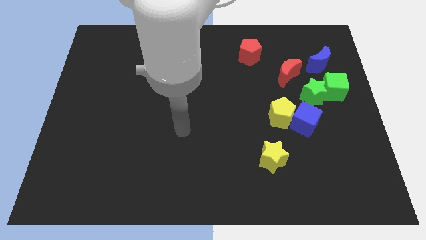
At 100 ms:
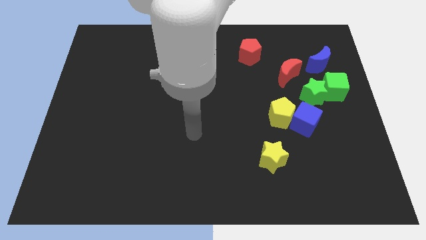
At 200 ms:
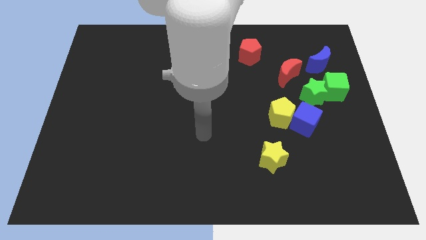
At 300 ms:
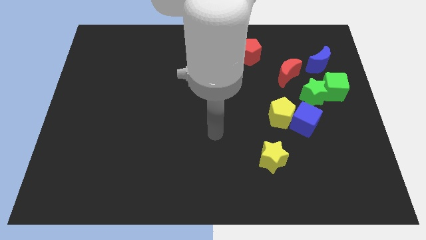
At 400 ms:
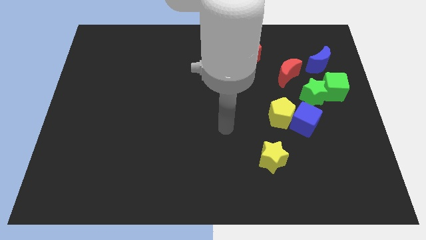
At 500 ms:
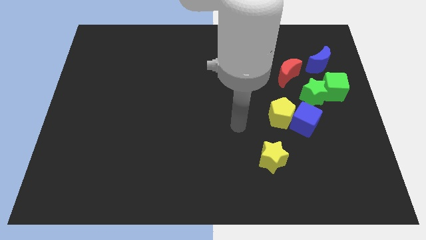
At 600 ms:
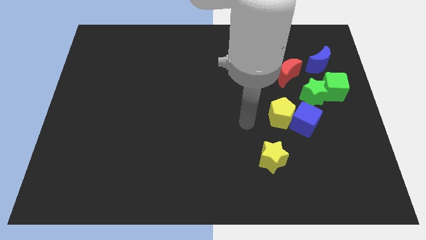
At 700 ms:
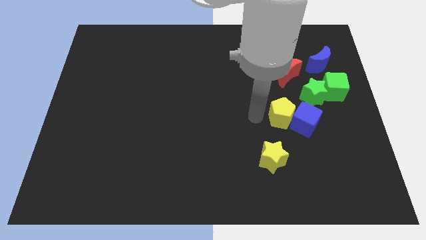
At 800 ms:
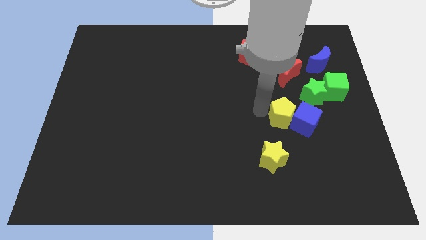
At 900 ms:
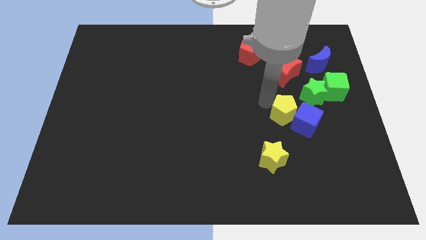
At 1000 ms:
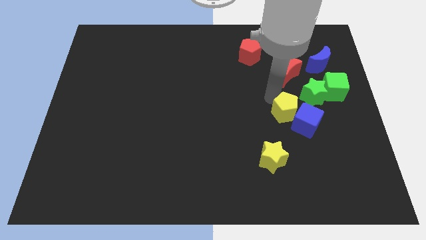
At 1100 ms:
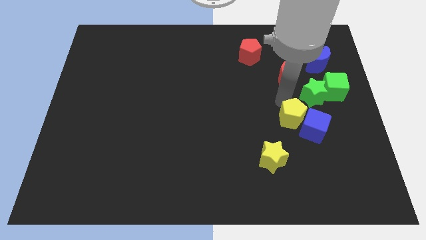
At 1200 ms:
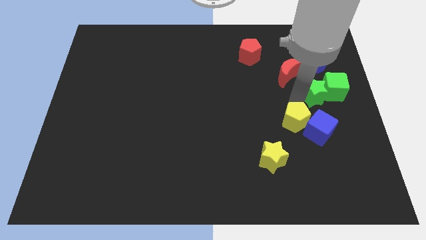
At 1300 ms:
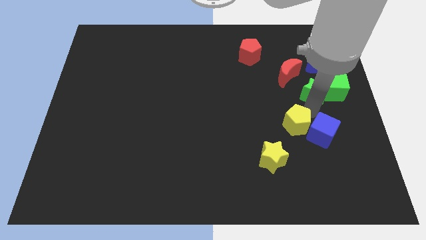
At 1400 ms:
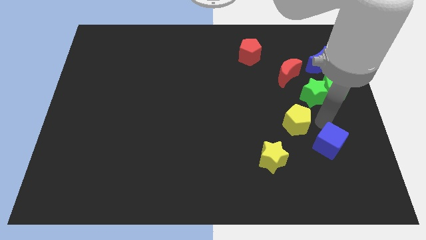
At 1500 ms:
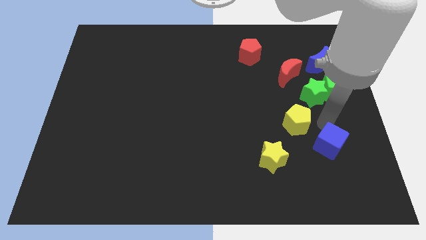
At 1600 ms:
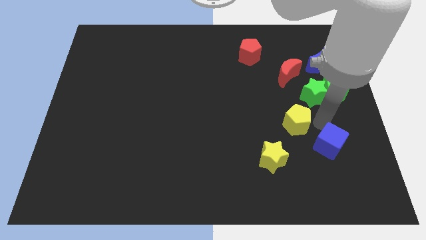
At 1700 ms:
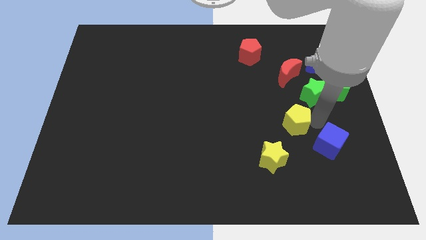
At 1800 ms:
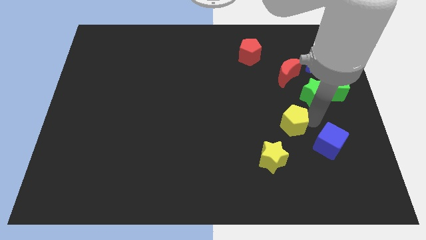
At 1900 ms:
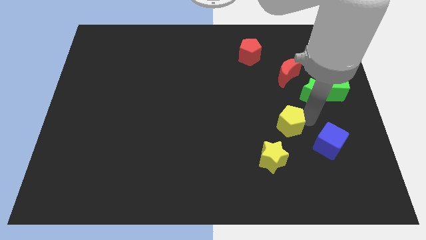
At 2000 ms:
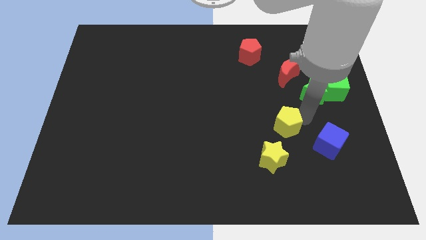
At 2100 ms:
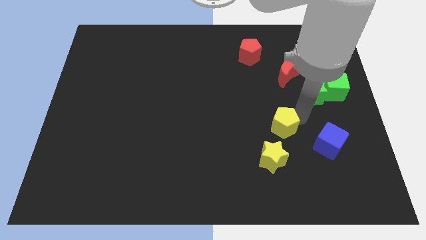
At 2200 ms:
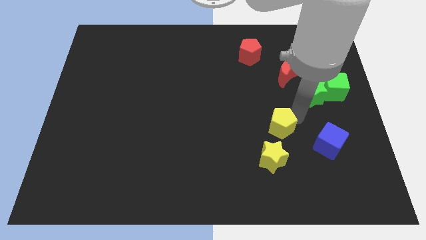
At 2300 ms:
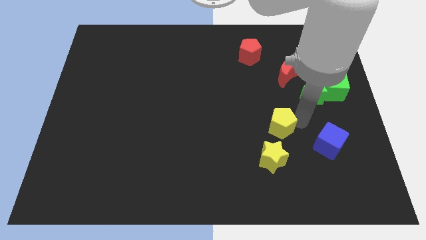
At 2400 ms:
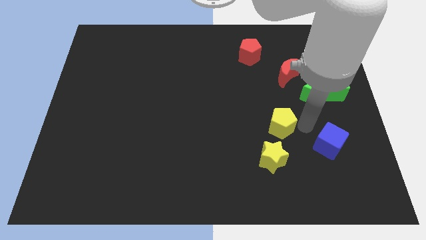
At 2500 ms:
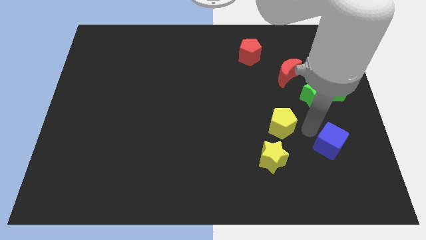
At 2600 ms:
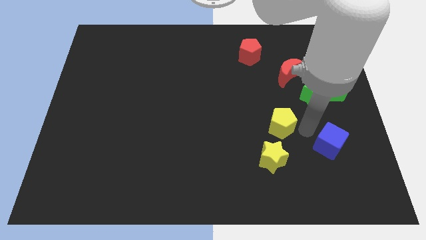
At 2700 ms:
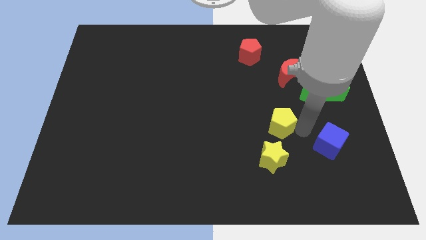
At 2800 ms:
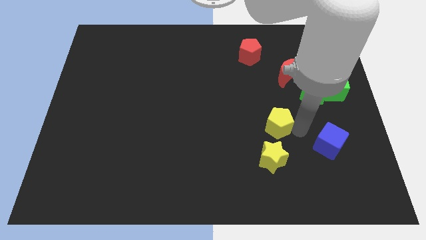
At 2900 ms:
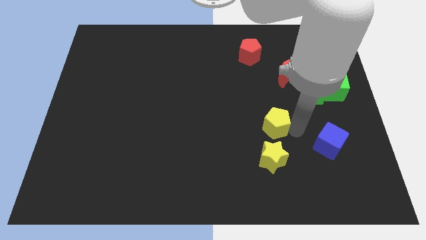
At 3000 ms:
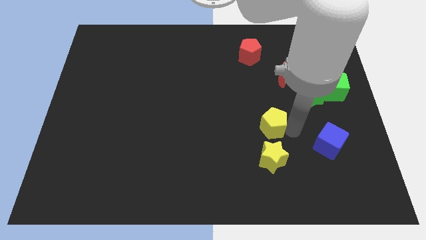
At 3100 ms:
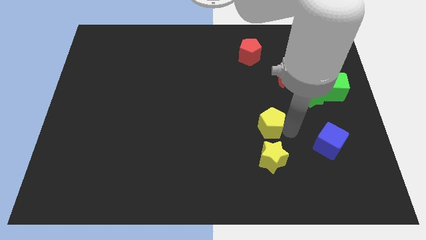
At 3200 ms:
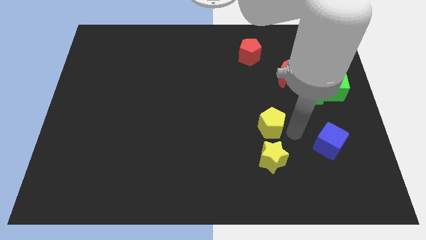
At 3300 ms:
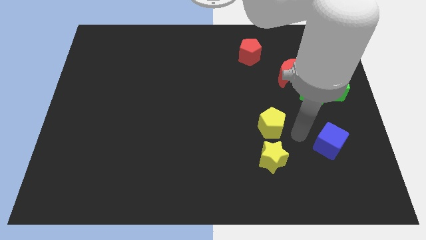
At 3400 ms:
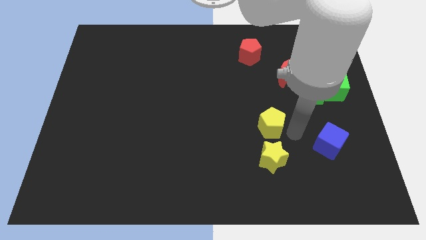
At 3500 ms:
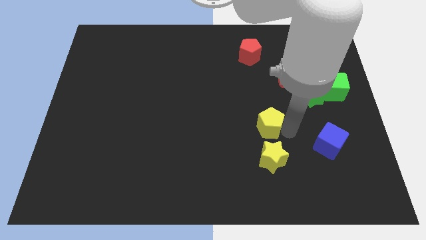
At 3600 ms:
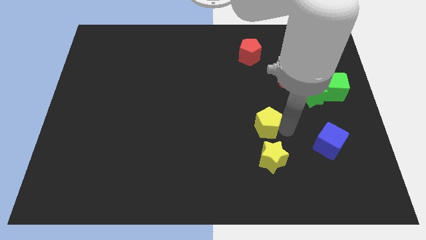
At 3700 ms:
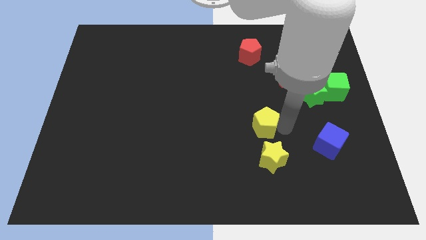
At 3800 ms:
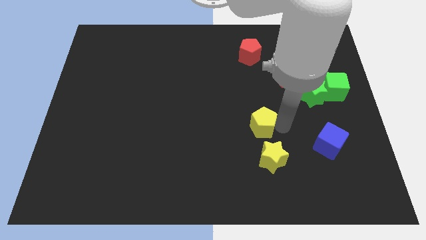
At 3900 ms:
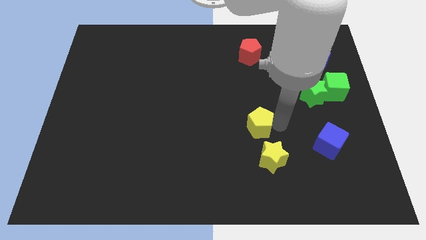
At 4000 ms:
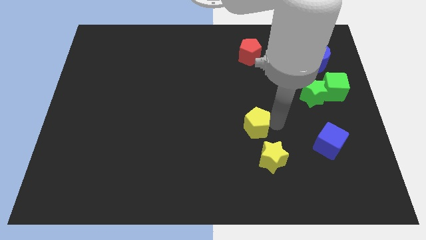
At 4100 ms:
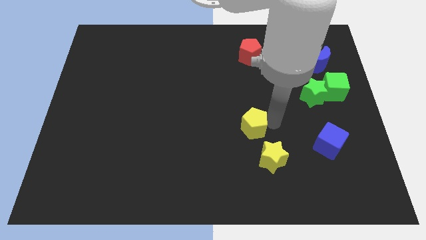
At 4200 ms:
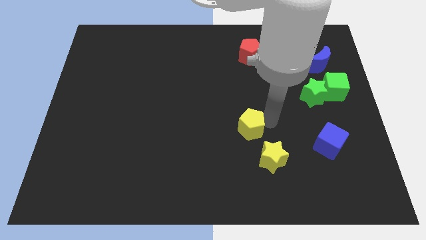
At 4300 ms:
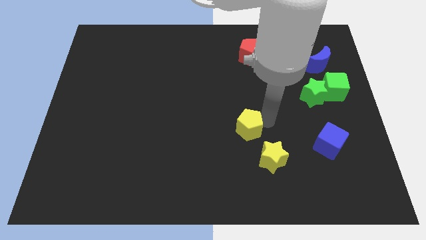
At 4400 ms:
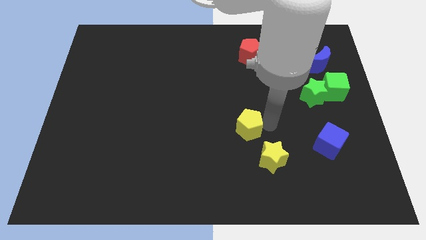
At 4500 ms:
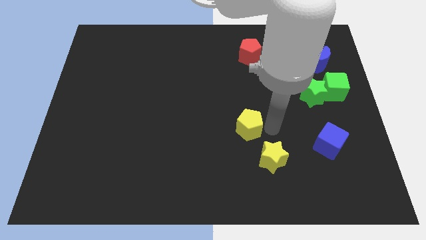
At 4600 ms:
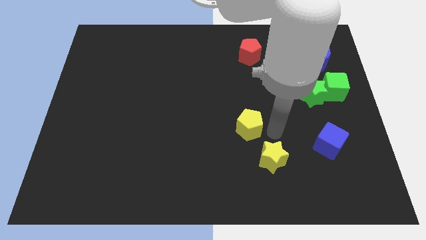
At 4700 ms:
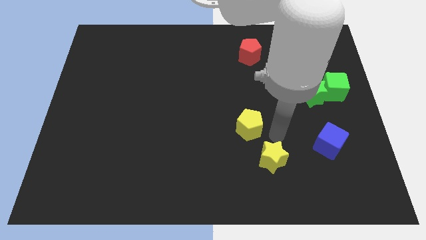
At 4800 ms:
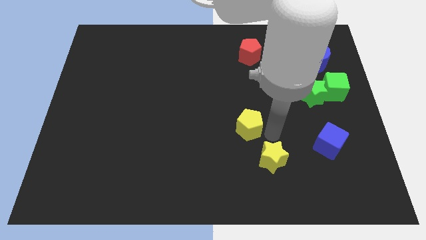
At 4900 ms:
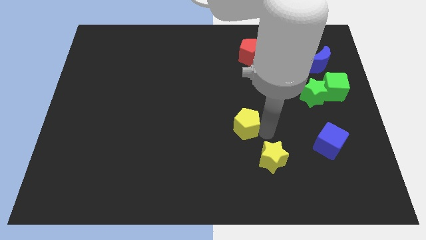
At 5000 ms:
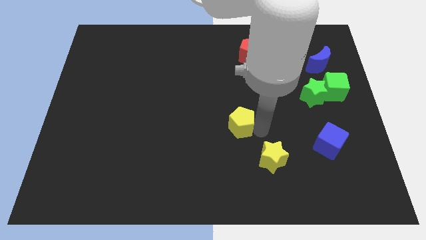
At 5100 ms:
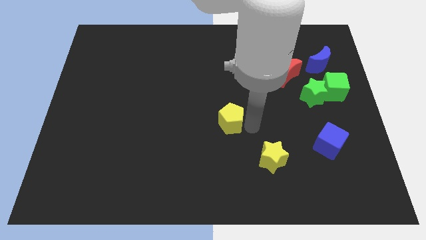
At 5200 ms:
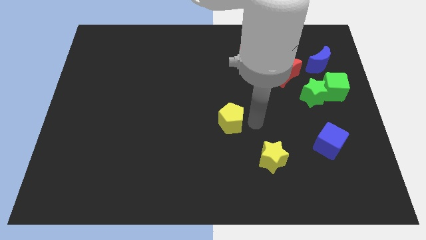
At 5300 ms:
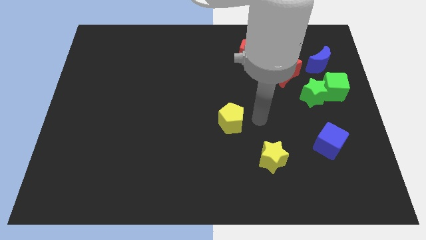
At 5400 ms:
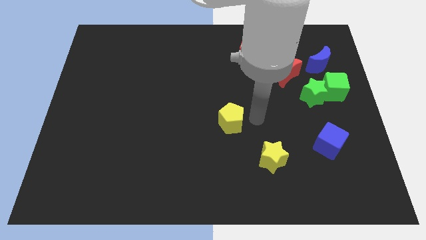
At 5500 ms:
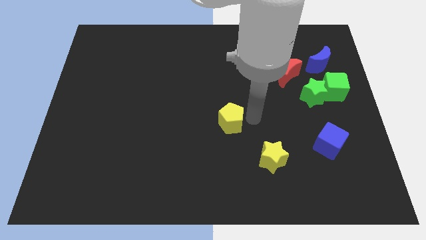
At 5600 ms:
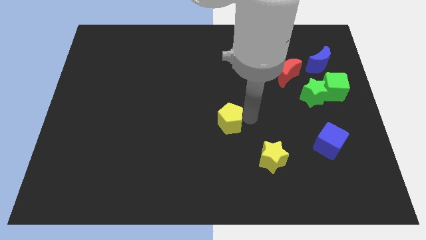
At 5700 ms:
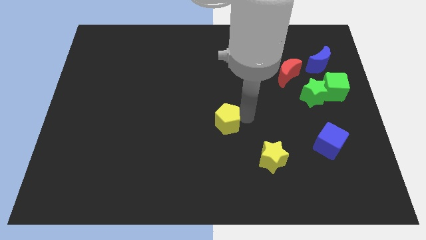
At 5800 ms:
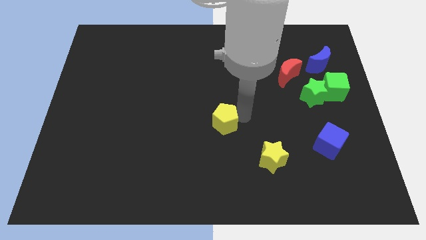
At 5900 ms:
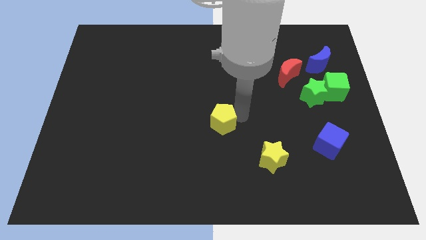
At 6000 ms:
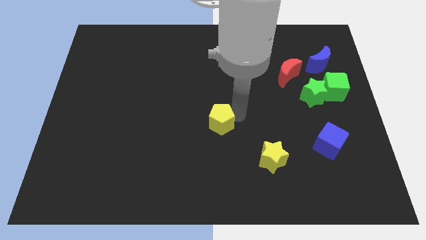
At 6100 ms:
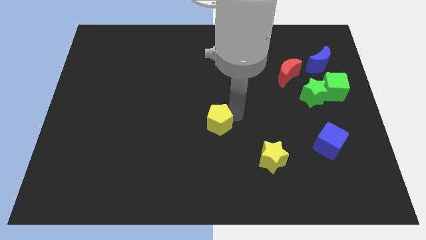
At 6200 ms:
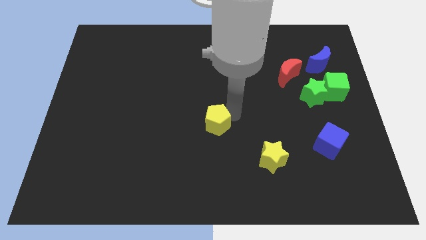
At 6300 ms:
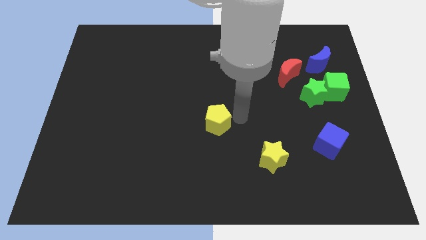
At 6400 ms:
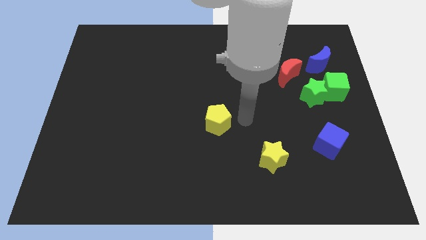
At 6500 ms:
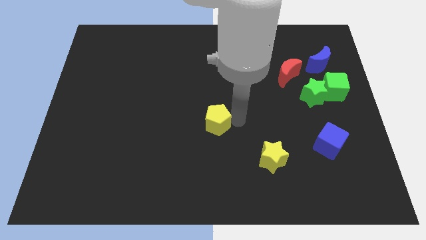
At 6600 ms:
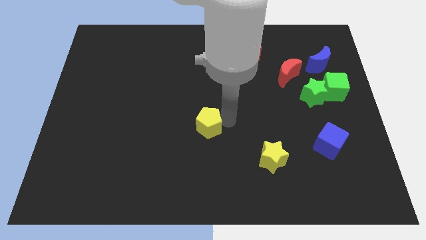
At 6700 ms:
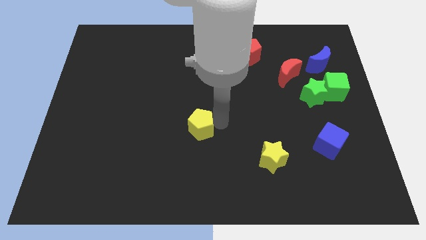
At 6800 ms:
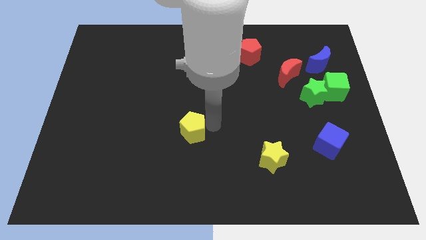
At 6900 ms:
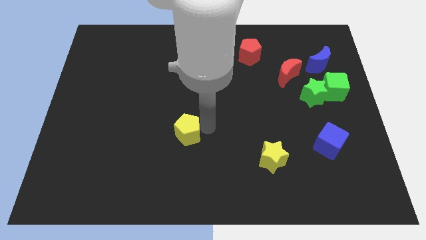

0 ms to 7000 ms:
move the yellow pentagon to the left

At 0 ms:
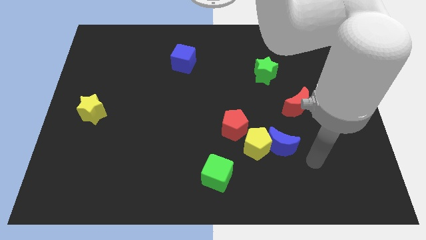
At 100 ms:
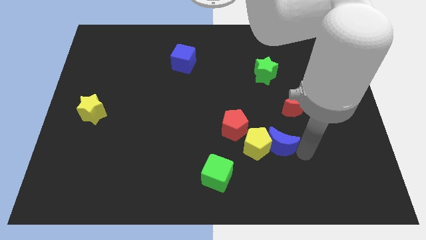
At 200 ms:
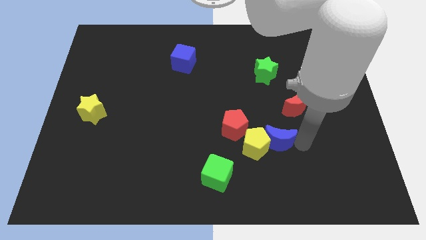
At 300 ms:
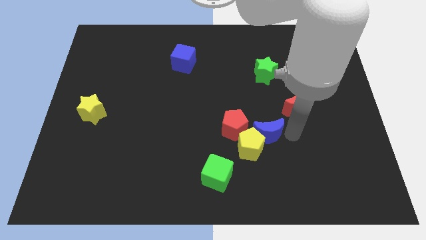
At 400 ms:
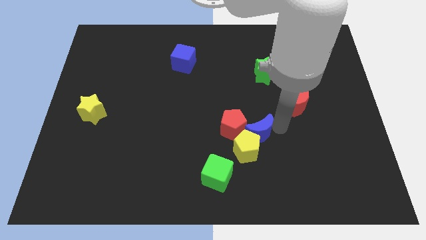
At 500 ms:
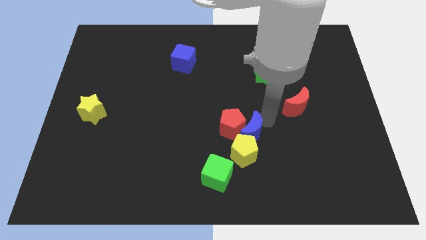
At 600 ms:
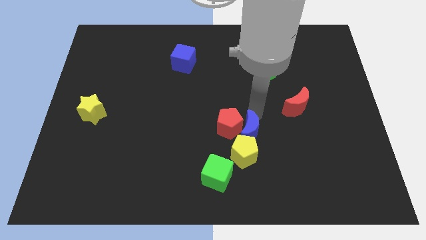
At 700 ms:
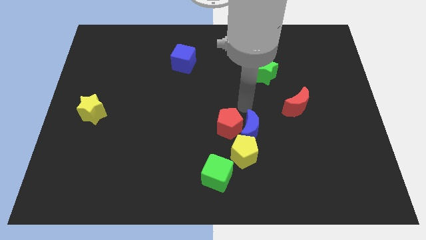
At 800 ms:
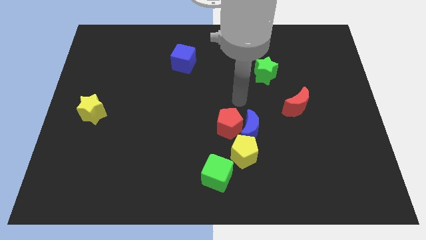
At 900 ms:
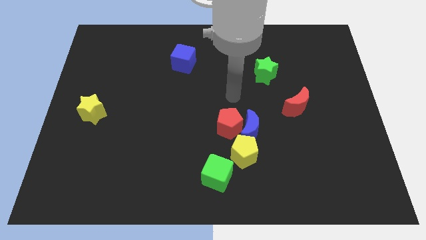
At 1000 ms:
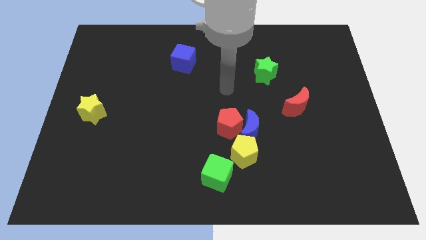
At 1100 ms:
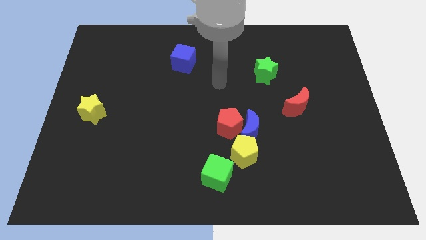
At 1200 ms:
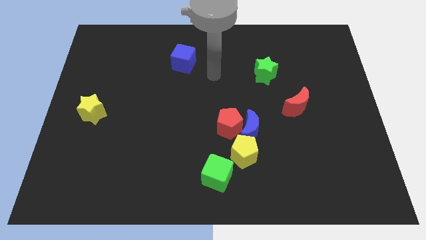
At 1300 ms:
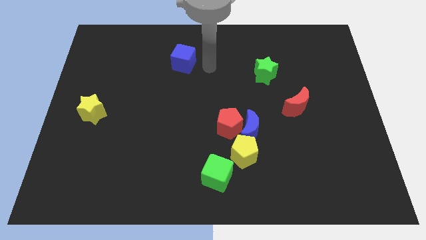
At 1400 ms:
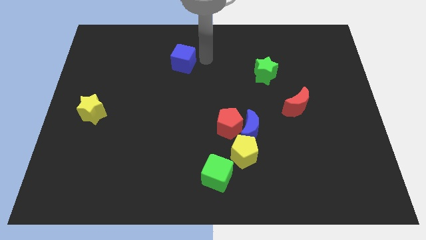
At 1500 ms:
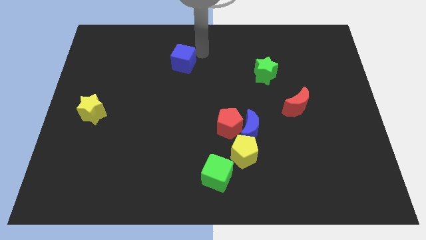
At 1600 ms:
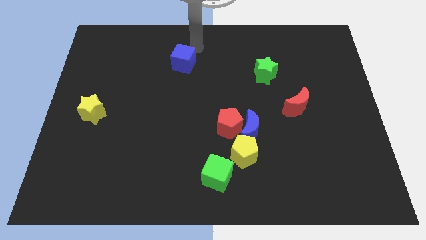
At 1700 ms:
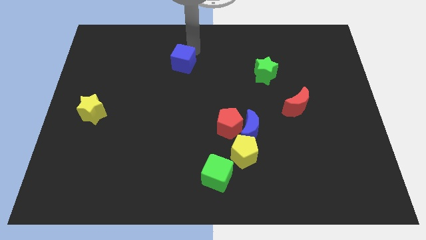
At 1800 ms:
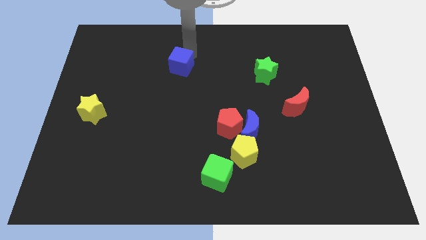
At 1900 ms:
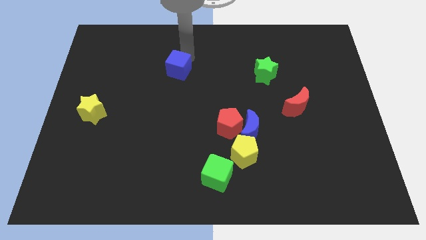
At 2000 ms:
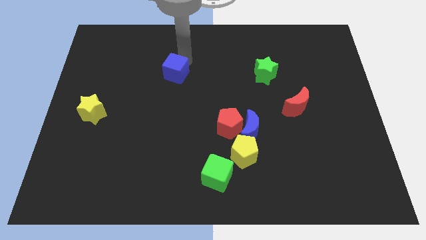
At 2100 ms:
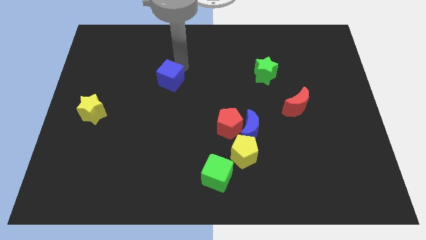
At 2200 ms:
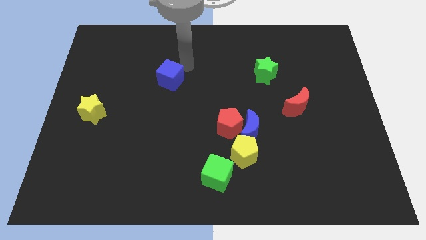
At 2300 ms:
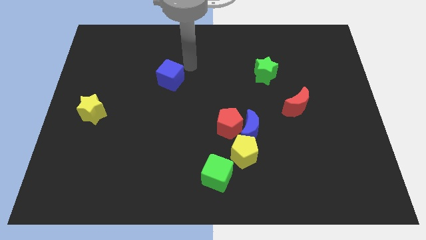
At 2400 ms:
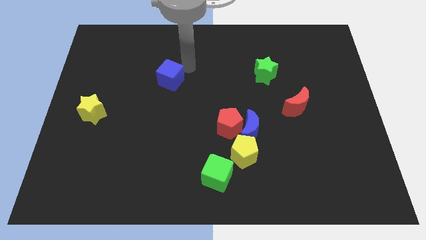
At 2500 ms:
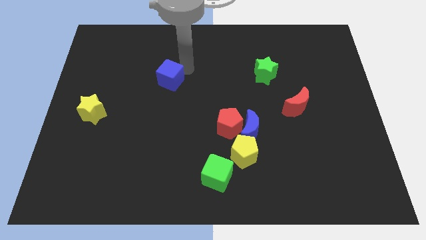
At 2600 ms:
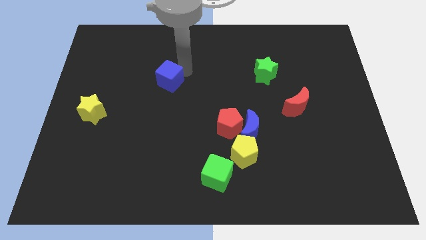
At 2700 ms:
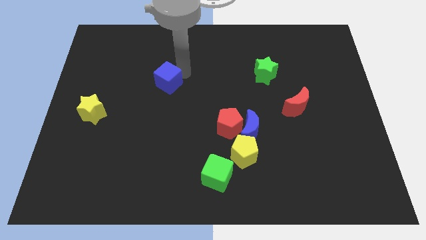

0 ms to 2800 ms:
slide the blue cube a little bit down and to the left diagonally
